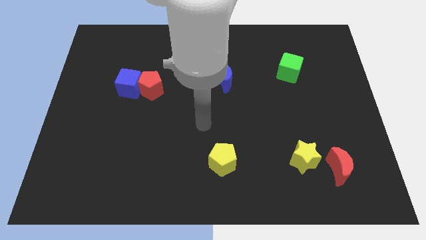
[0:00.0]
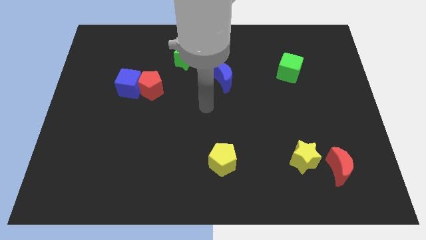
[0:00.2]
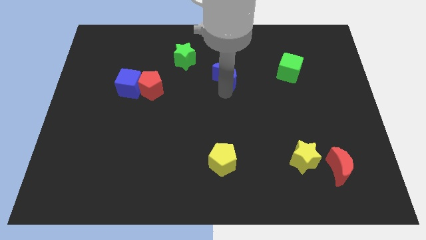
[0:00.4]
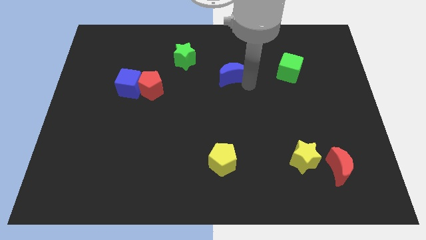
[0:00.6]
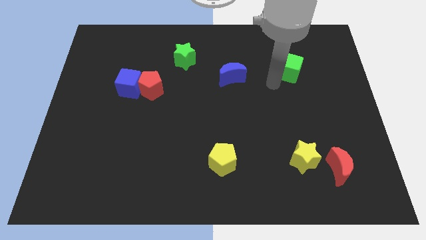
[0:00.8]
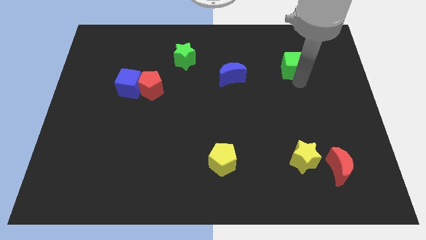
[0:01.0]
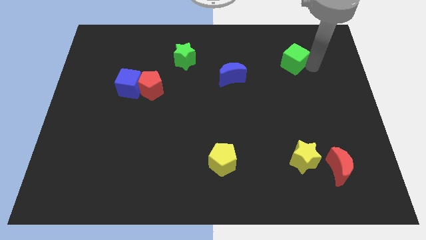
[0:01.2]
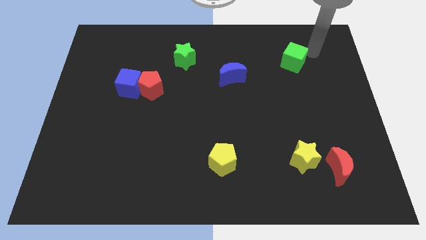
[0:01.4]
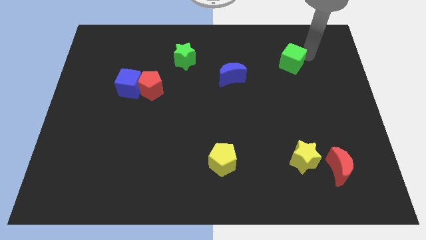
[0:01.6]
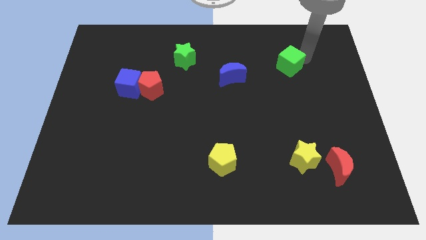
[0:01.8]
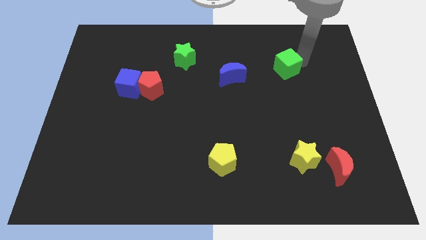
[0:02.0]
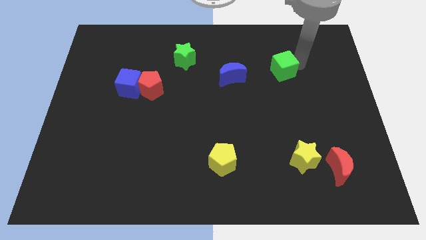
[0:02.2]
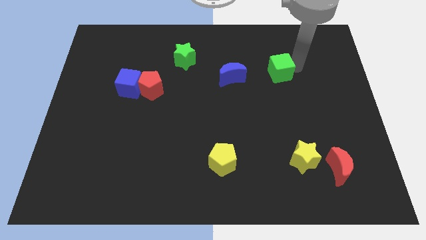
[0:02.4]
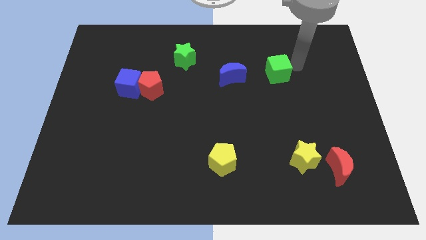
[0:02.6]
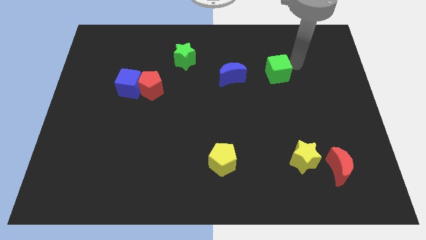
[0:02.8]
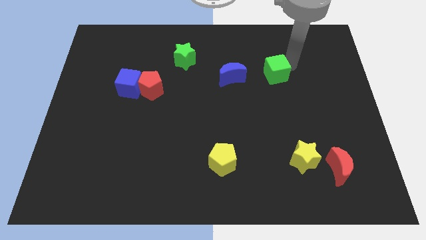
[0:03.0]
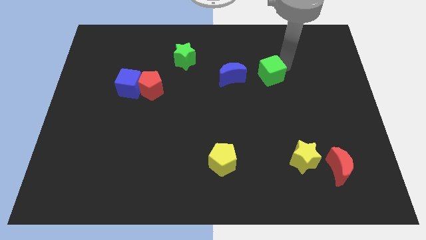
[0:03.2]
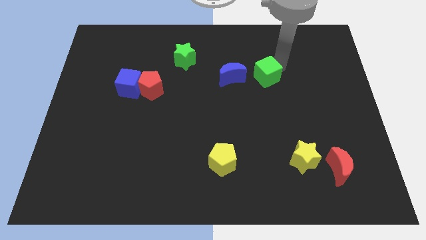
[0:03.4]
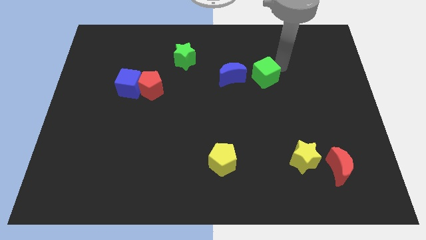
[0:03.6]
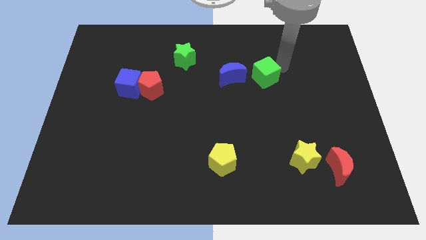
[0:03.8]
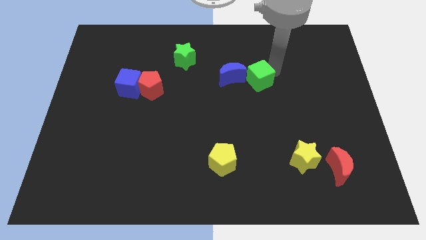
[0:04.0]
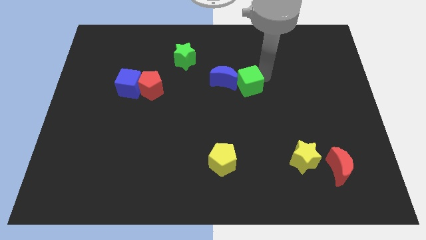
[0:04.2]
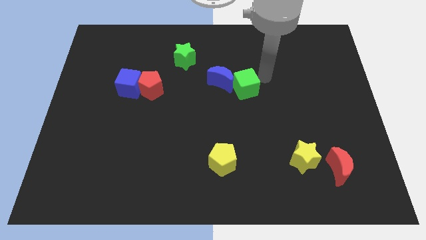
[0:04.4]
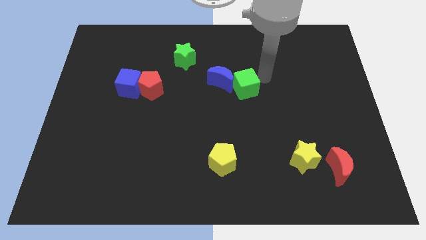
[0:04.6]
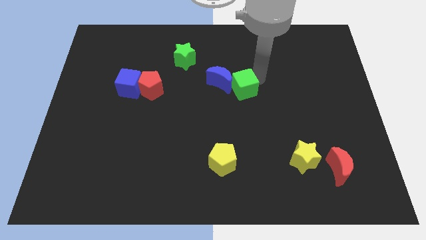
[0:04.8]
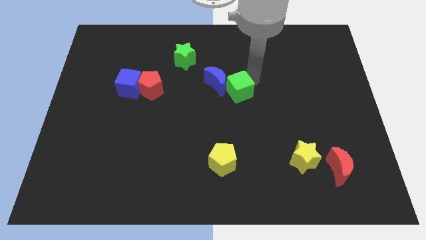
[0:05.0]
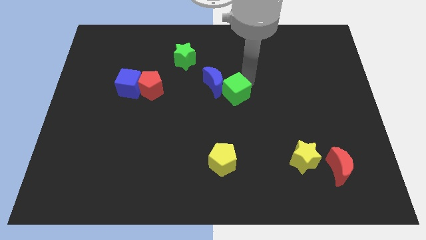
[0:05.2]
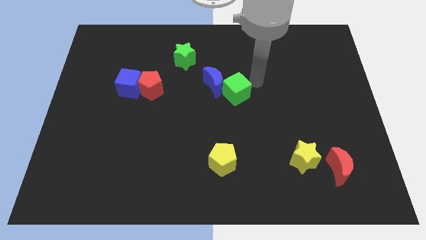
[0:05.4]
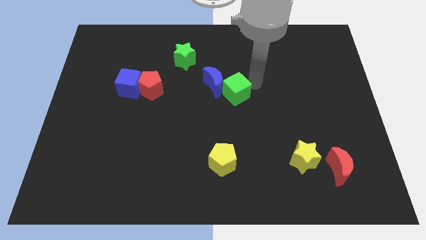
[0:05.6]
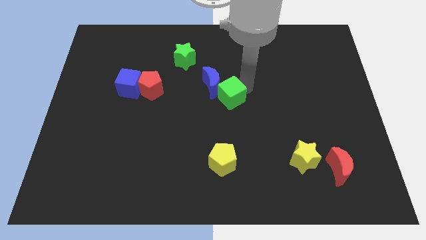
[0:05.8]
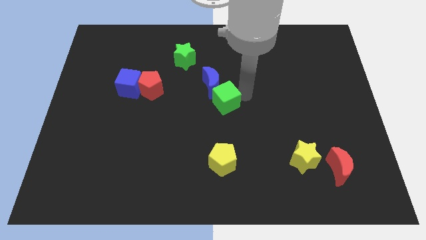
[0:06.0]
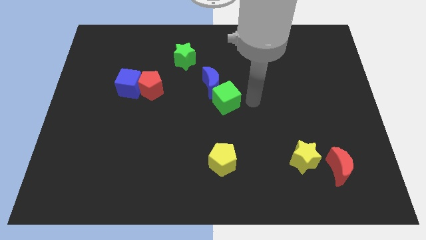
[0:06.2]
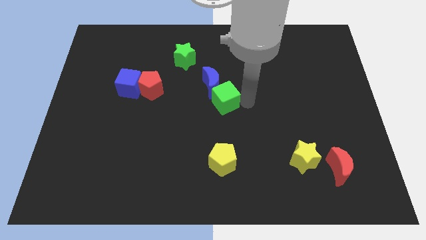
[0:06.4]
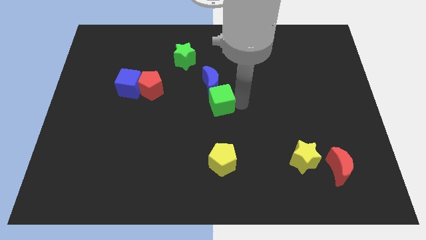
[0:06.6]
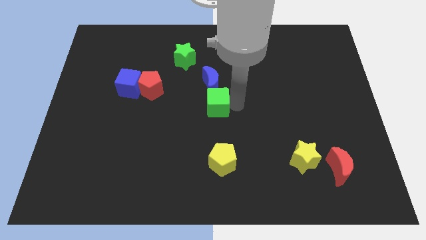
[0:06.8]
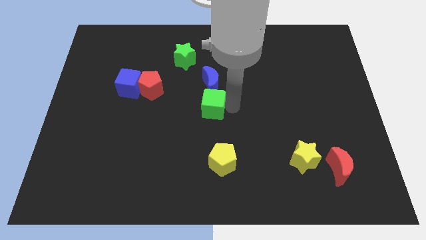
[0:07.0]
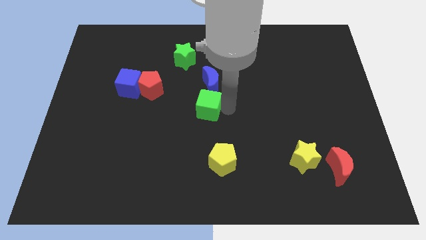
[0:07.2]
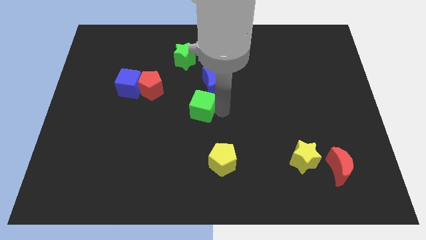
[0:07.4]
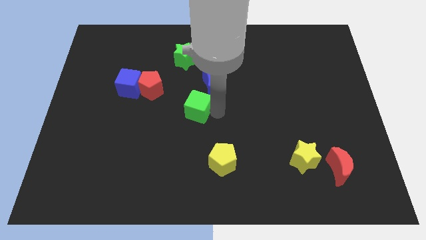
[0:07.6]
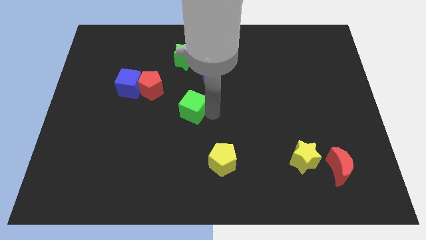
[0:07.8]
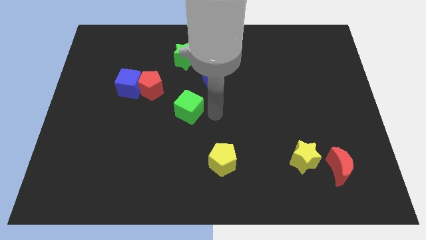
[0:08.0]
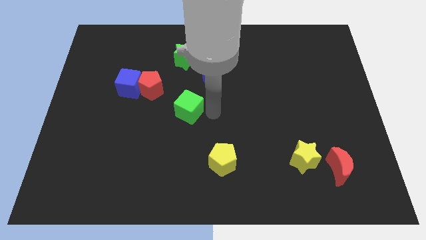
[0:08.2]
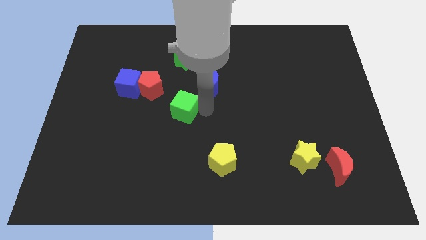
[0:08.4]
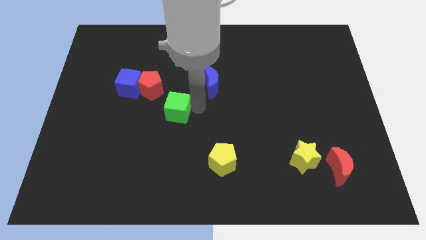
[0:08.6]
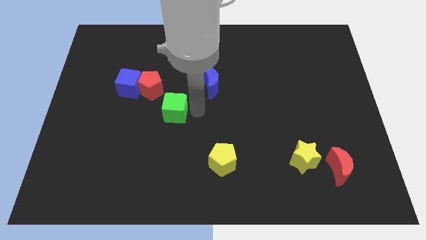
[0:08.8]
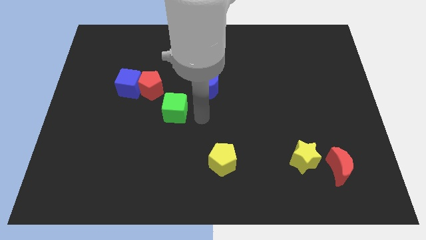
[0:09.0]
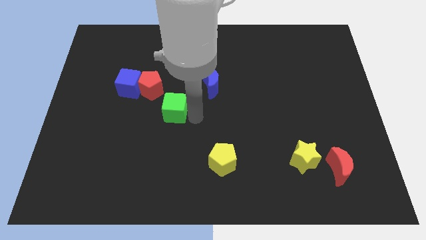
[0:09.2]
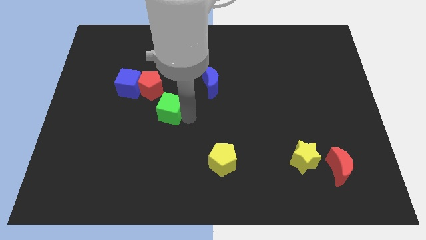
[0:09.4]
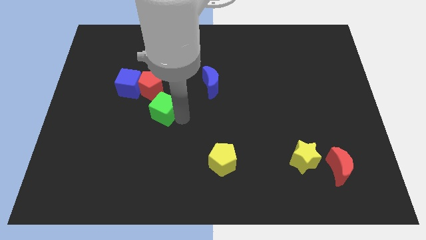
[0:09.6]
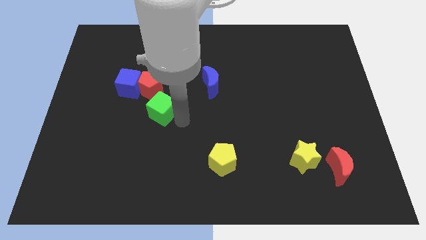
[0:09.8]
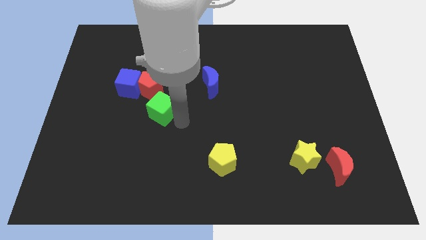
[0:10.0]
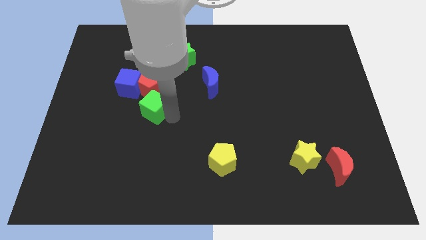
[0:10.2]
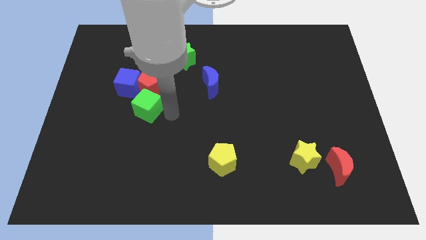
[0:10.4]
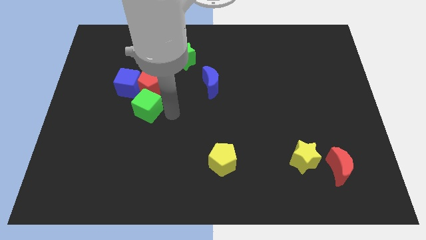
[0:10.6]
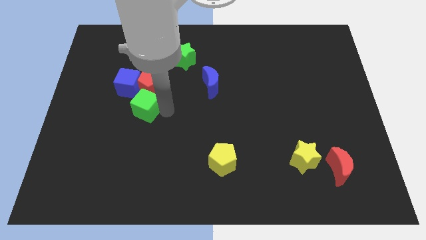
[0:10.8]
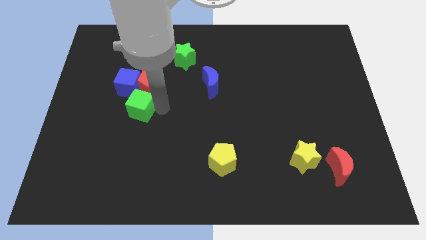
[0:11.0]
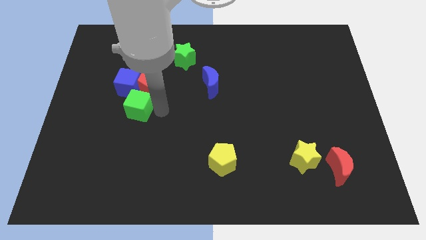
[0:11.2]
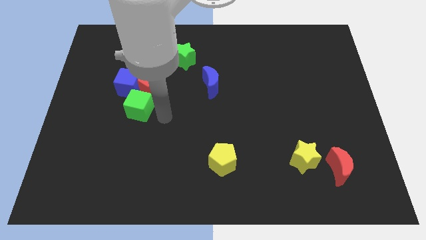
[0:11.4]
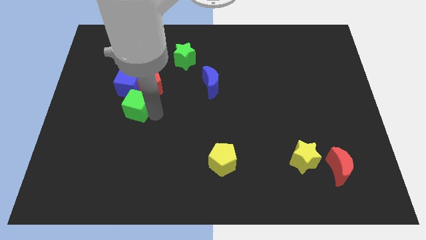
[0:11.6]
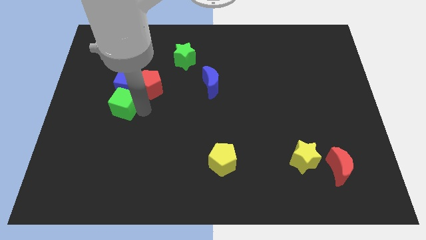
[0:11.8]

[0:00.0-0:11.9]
slide the green cube to the bottom left side of the blue cube

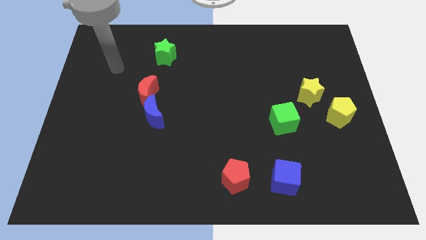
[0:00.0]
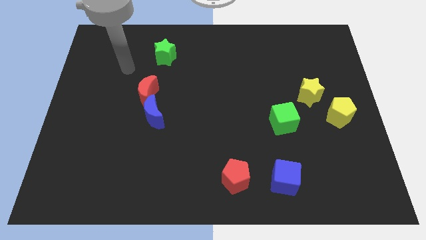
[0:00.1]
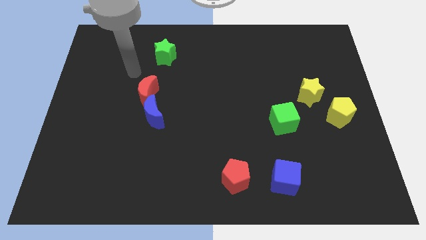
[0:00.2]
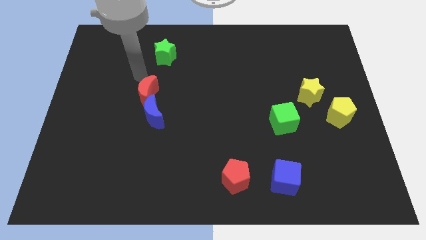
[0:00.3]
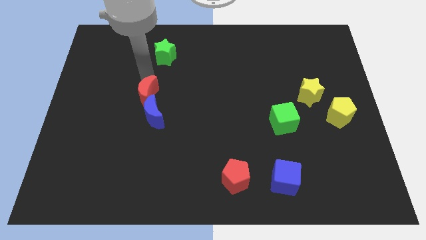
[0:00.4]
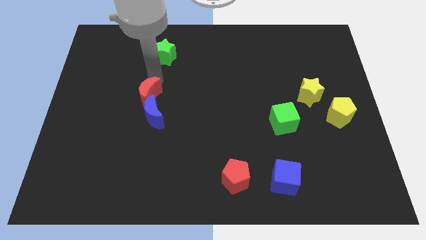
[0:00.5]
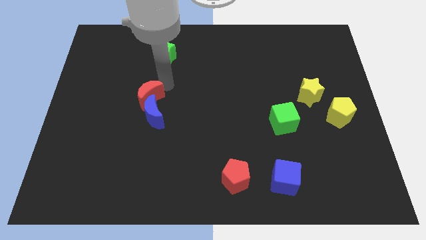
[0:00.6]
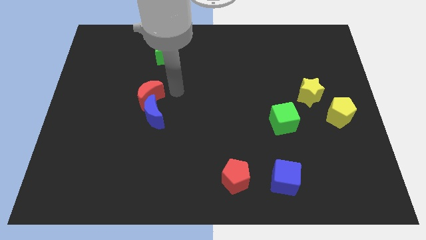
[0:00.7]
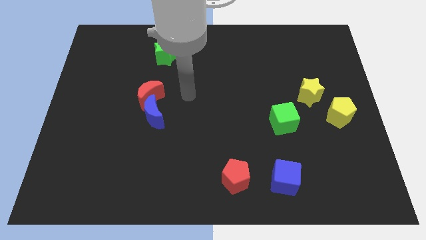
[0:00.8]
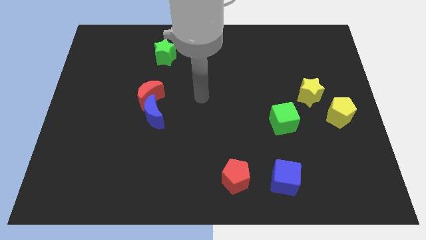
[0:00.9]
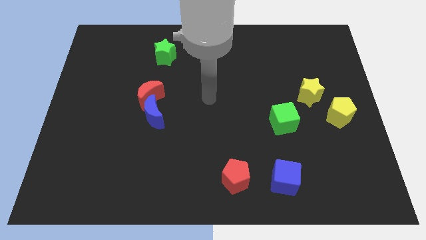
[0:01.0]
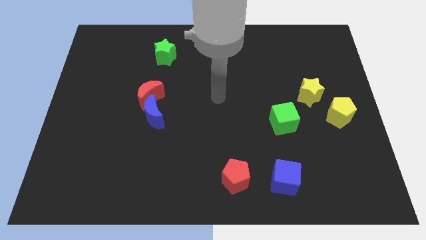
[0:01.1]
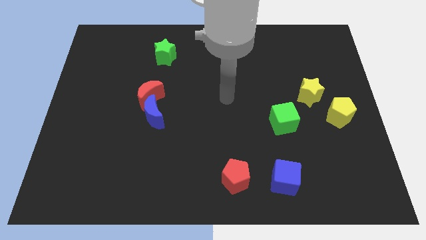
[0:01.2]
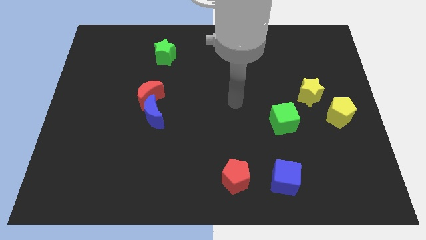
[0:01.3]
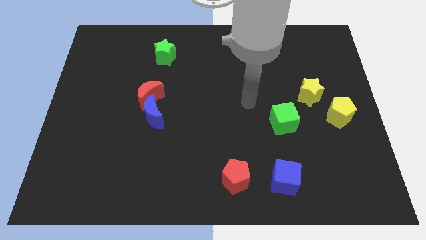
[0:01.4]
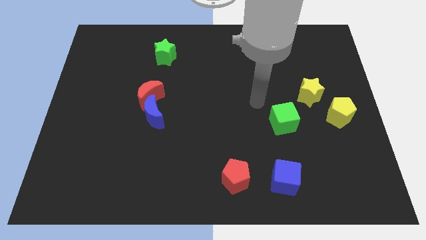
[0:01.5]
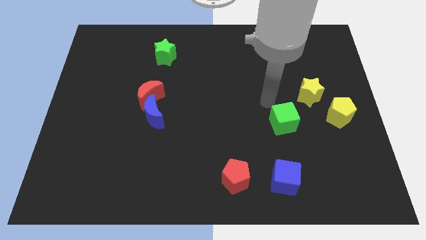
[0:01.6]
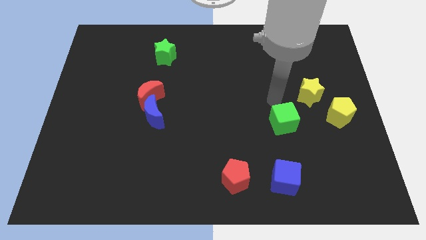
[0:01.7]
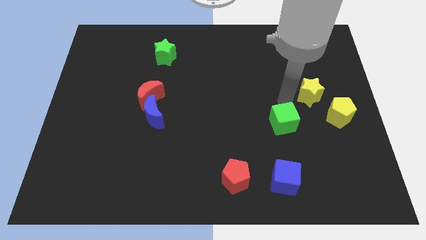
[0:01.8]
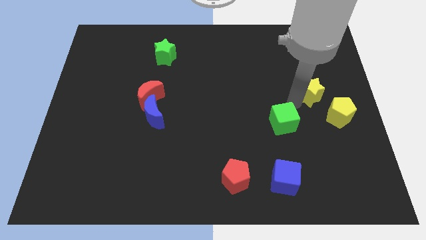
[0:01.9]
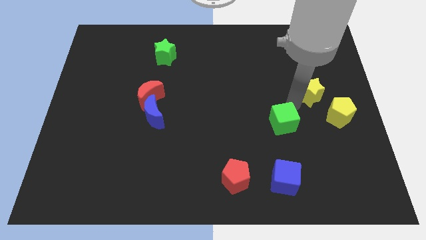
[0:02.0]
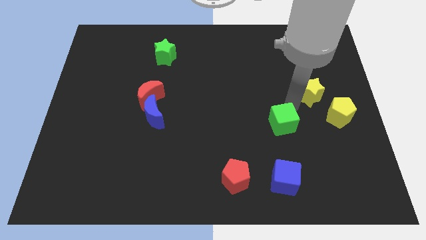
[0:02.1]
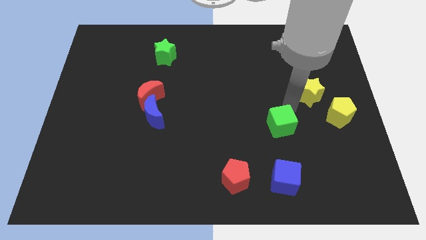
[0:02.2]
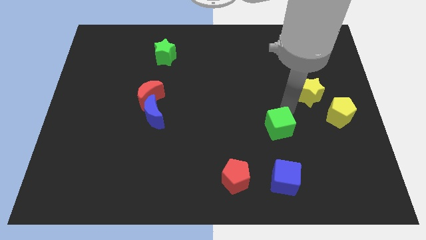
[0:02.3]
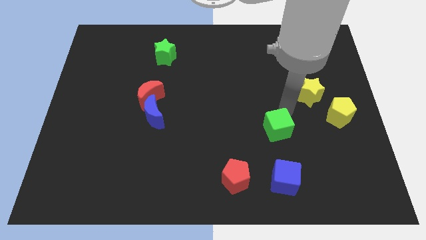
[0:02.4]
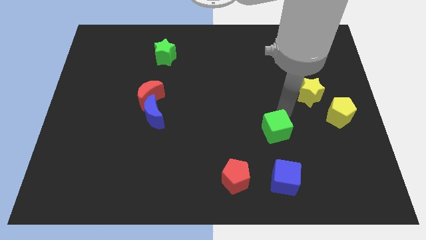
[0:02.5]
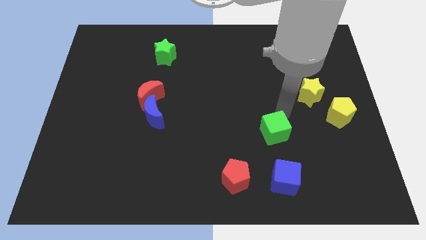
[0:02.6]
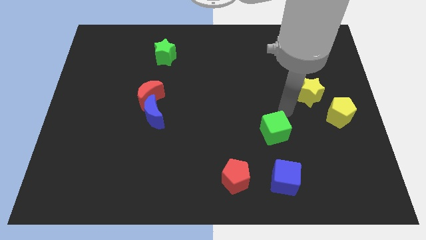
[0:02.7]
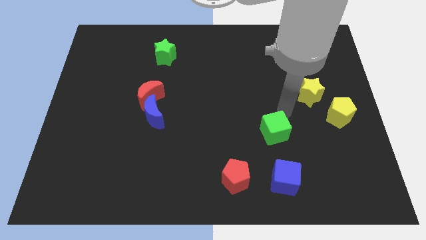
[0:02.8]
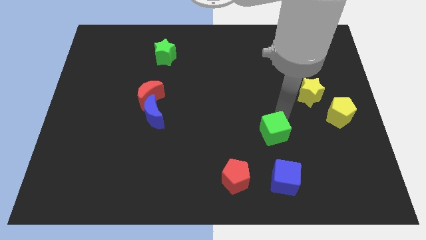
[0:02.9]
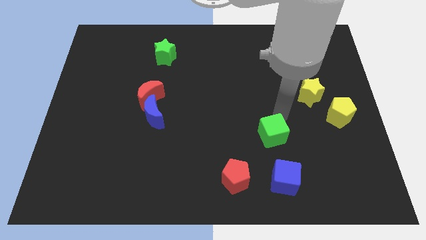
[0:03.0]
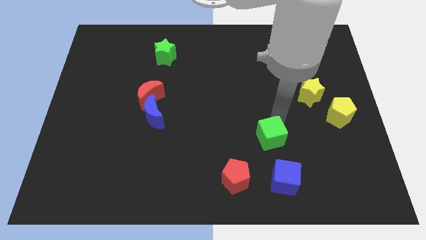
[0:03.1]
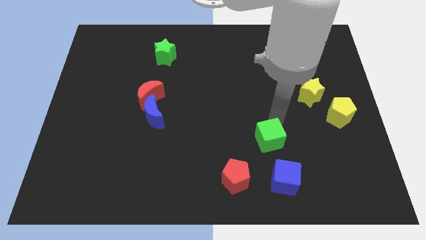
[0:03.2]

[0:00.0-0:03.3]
slide the green cube to the top right side of the red pentagon
